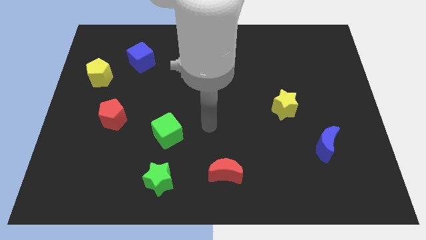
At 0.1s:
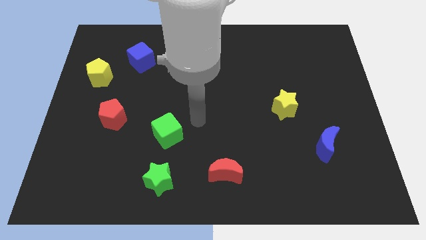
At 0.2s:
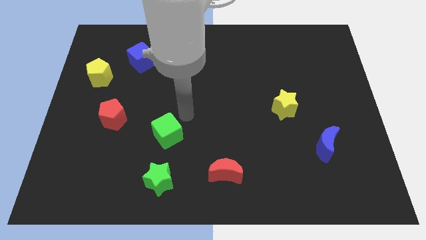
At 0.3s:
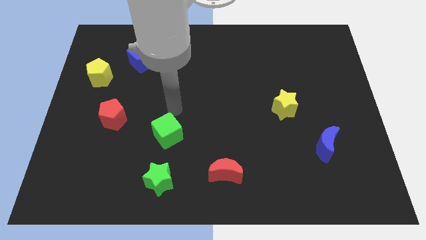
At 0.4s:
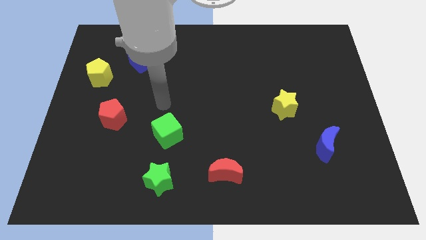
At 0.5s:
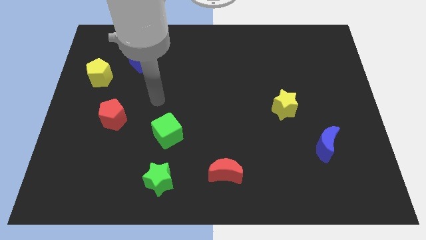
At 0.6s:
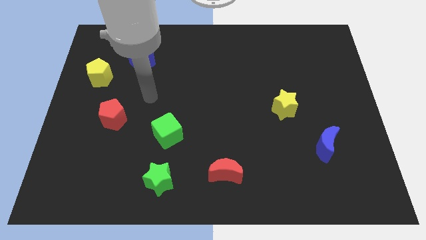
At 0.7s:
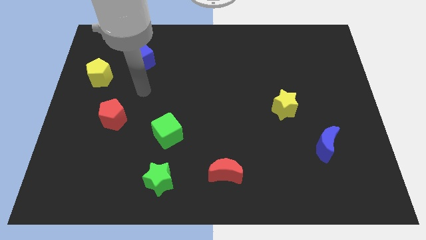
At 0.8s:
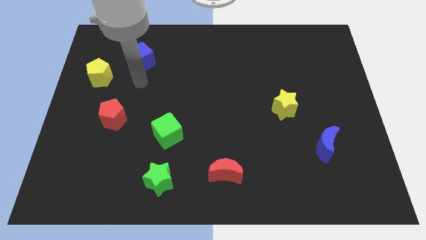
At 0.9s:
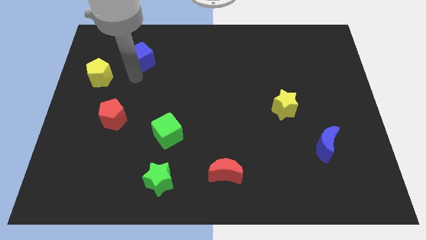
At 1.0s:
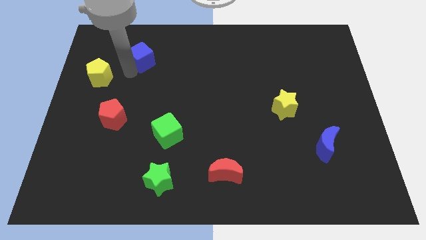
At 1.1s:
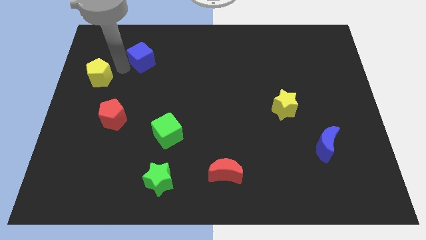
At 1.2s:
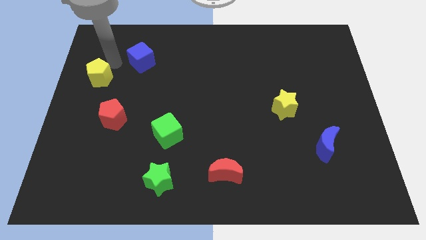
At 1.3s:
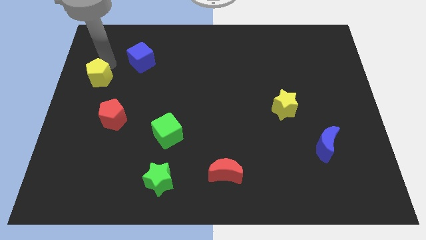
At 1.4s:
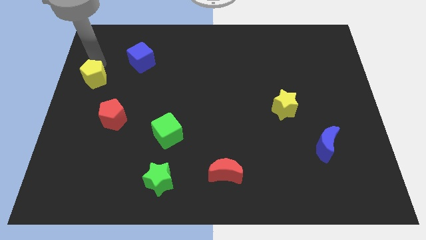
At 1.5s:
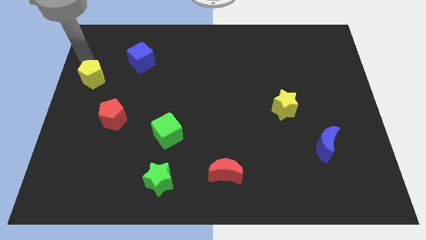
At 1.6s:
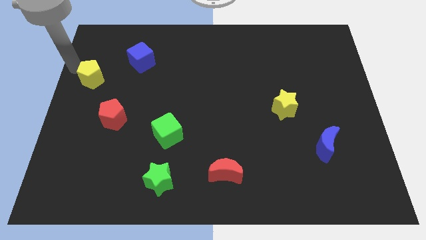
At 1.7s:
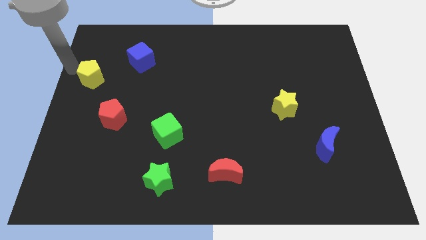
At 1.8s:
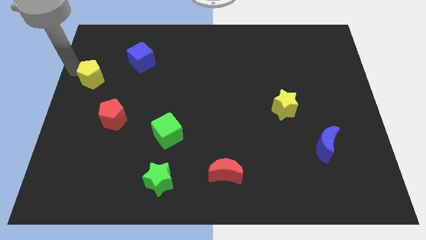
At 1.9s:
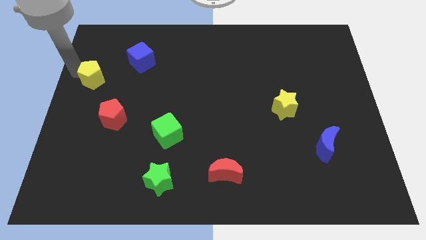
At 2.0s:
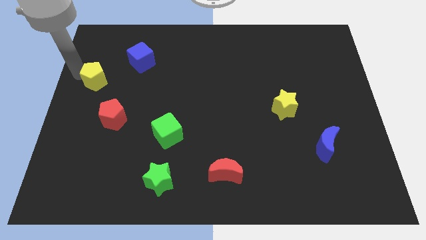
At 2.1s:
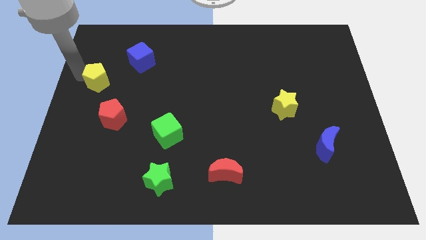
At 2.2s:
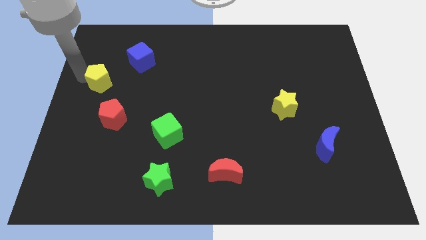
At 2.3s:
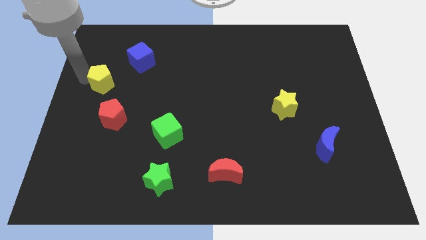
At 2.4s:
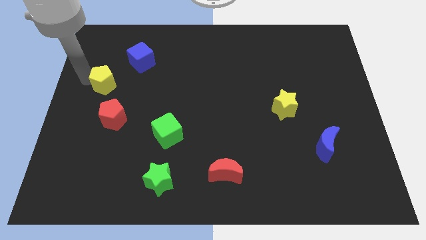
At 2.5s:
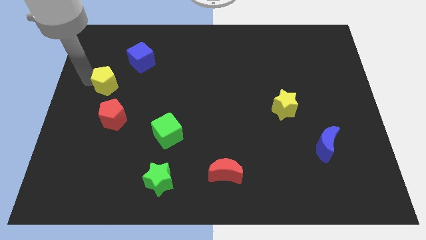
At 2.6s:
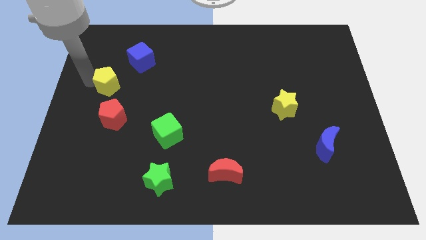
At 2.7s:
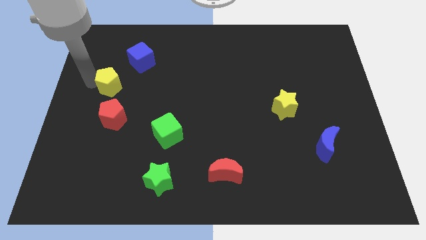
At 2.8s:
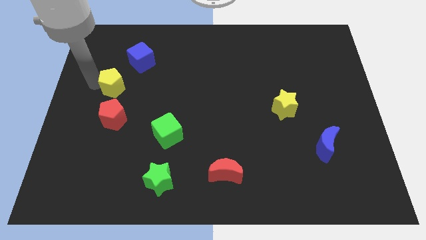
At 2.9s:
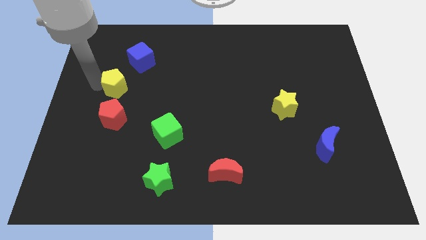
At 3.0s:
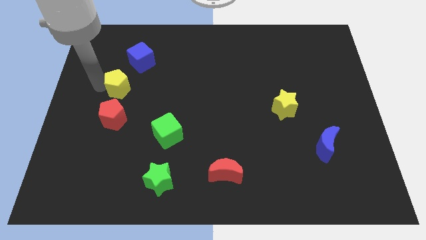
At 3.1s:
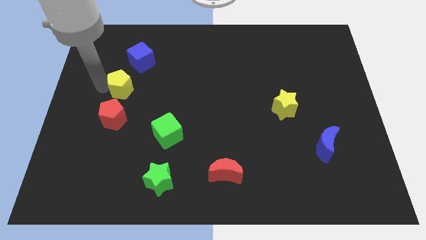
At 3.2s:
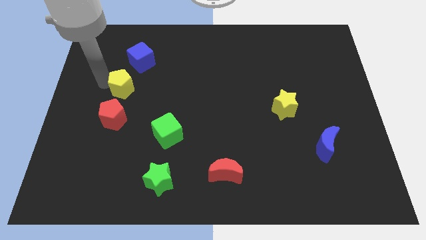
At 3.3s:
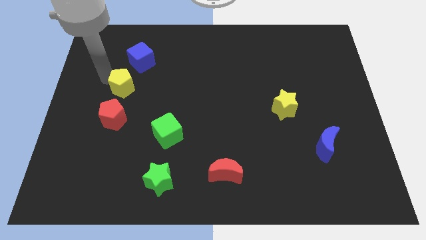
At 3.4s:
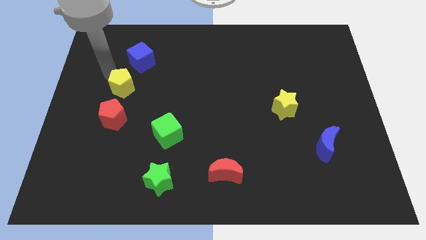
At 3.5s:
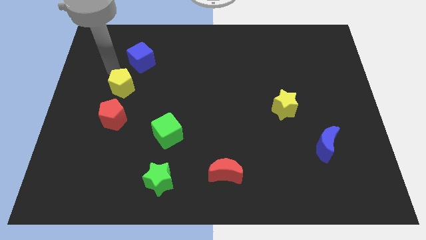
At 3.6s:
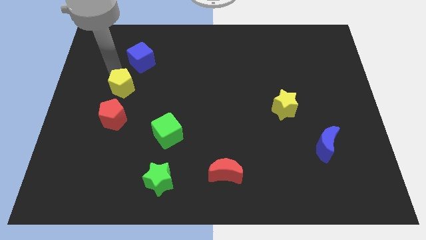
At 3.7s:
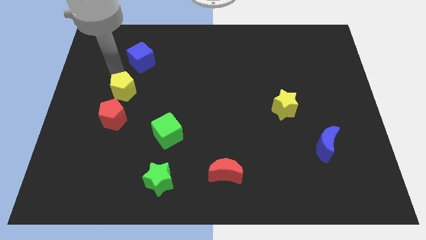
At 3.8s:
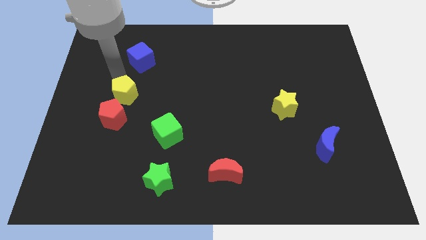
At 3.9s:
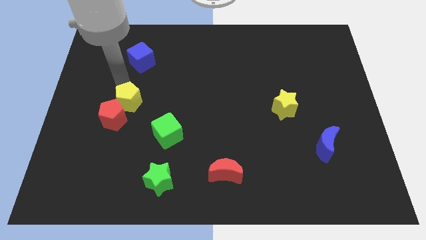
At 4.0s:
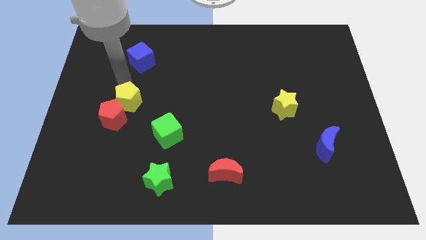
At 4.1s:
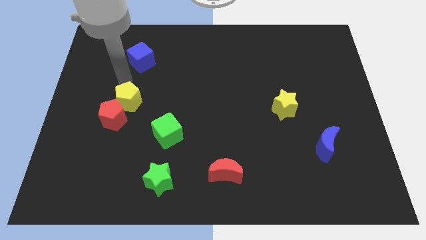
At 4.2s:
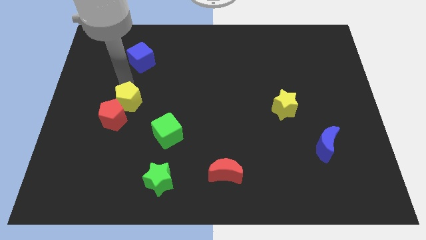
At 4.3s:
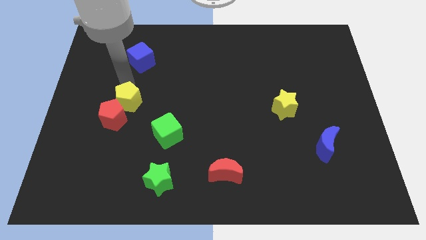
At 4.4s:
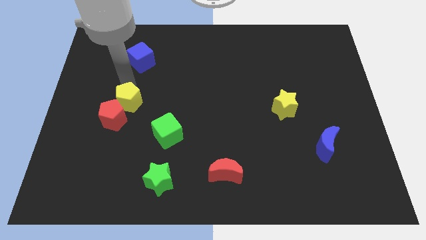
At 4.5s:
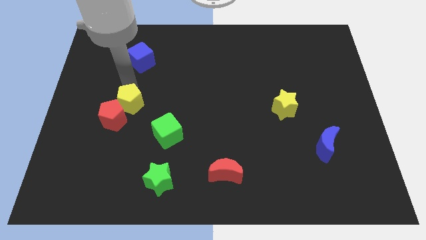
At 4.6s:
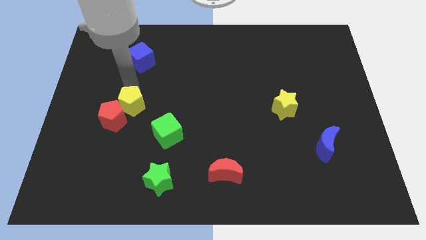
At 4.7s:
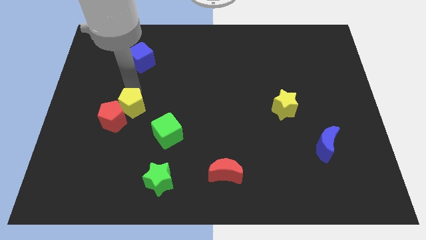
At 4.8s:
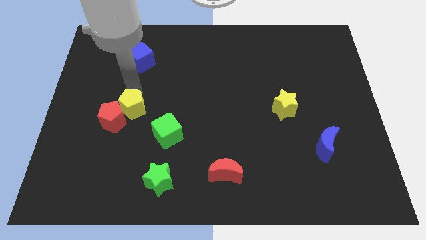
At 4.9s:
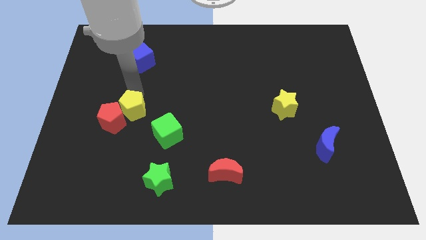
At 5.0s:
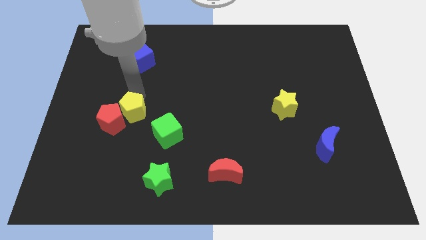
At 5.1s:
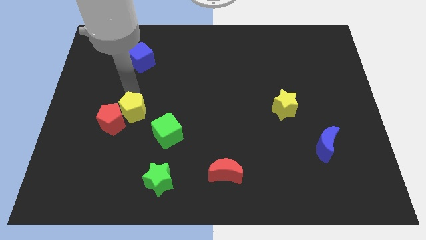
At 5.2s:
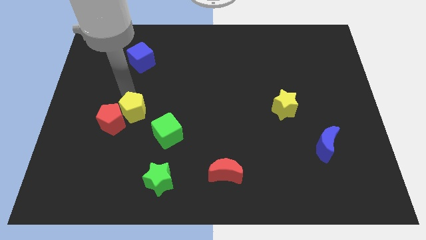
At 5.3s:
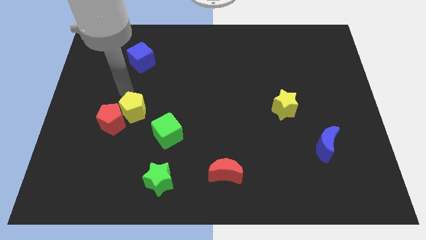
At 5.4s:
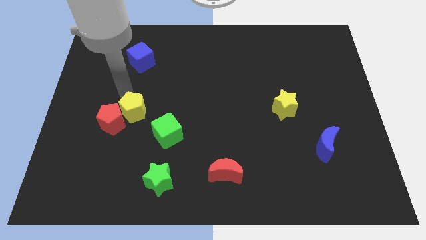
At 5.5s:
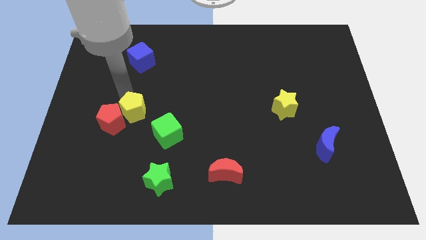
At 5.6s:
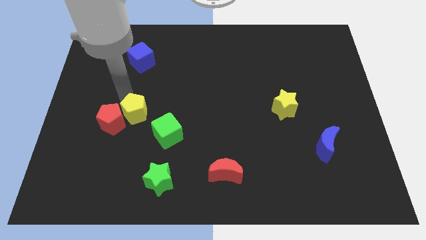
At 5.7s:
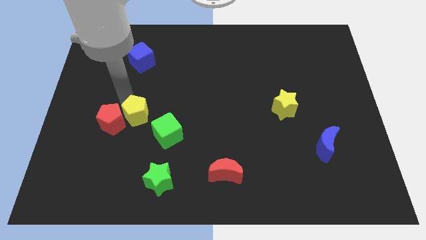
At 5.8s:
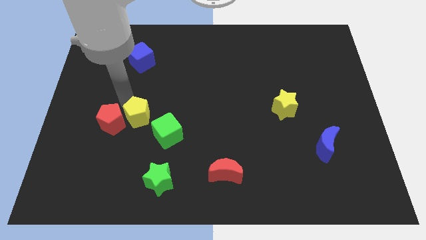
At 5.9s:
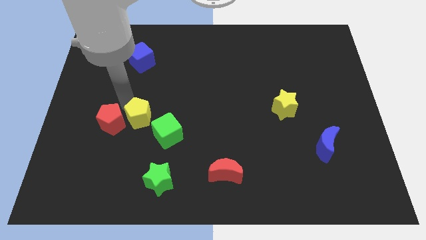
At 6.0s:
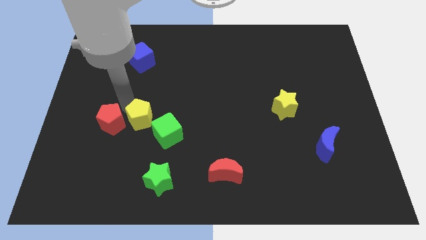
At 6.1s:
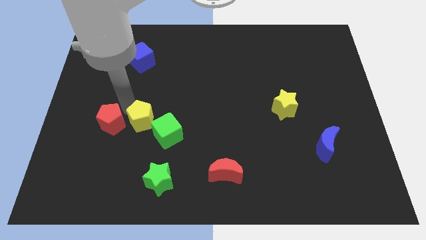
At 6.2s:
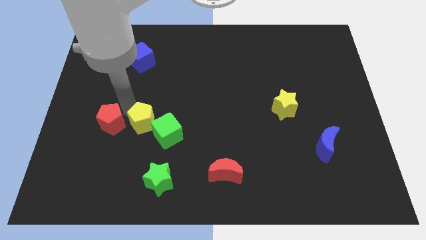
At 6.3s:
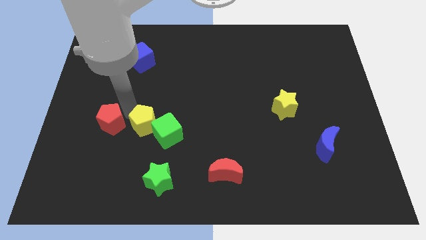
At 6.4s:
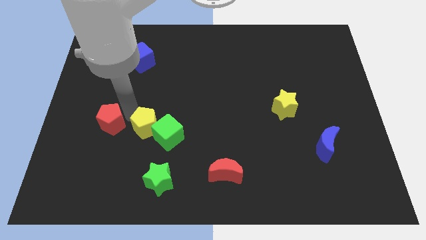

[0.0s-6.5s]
move the yellow pentagon diagonally downwards and right

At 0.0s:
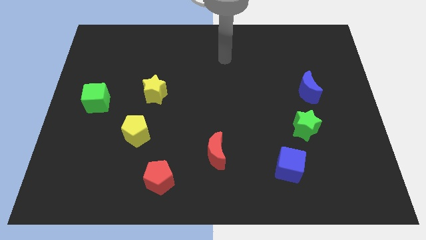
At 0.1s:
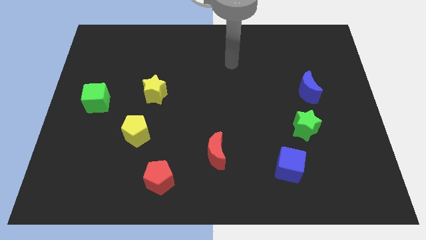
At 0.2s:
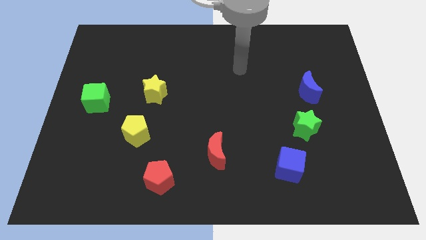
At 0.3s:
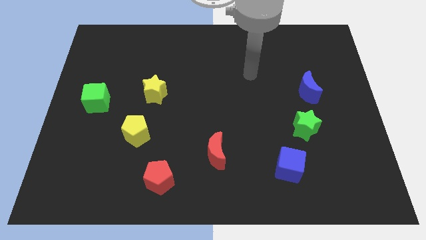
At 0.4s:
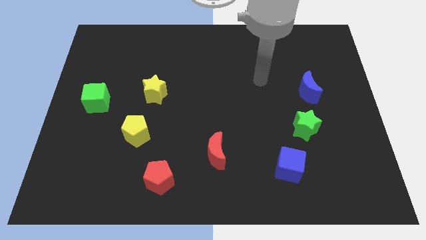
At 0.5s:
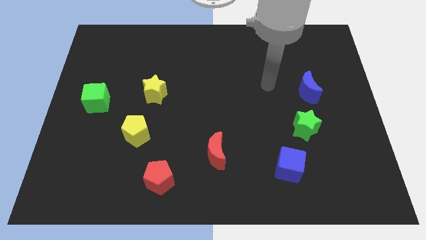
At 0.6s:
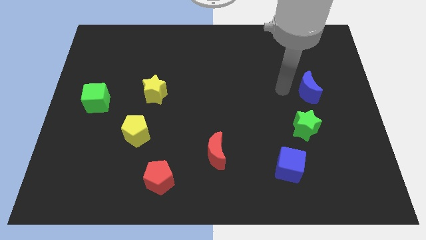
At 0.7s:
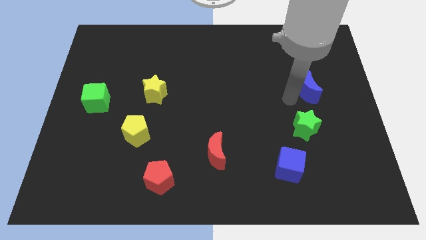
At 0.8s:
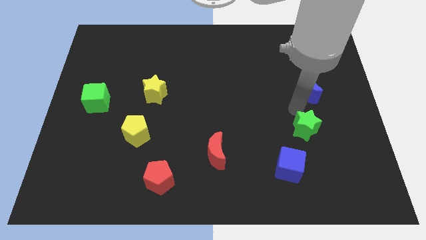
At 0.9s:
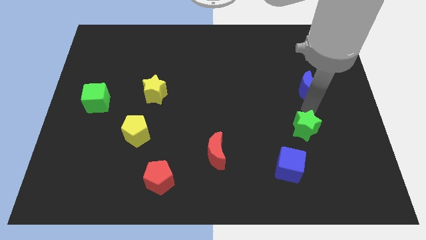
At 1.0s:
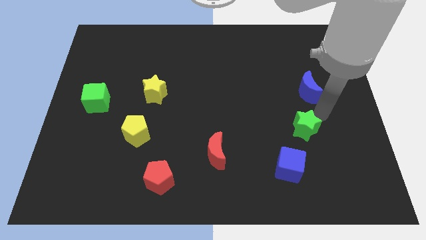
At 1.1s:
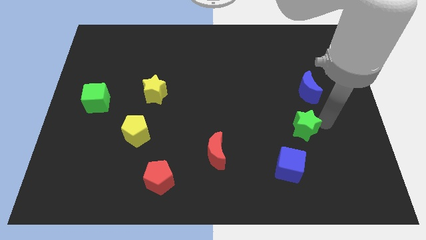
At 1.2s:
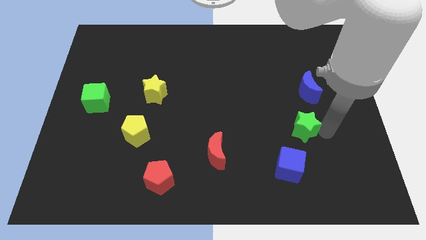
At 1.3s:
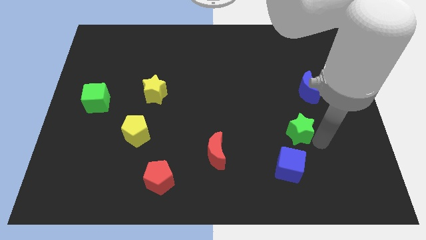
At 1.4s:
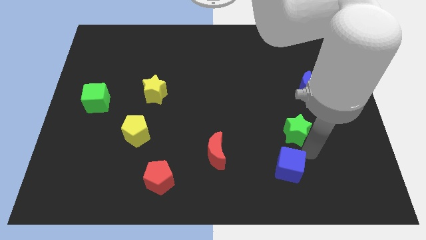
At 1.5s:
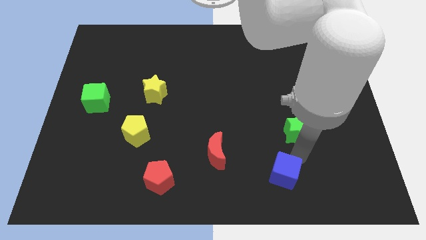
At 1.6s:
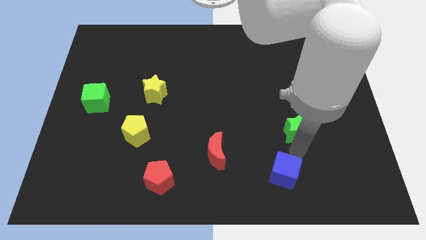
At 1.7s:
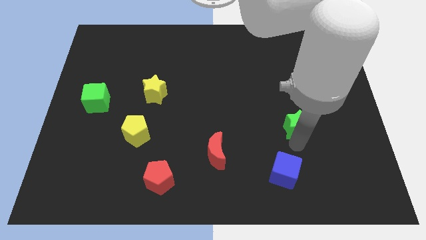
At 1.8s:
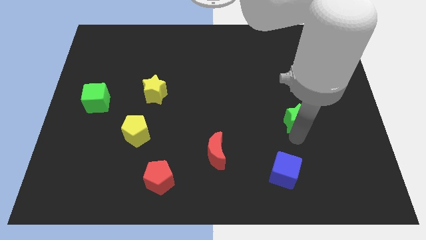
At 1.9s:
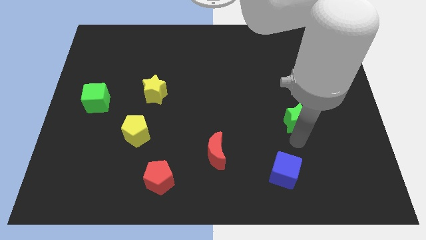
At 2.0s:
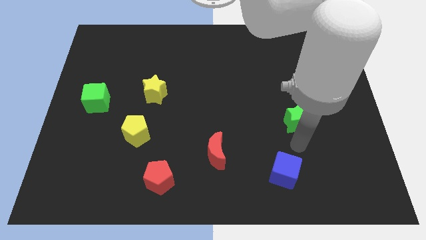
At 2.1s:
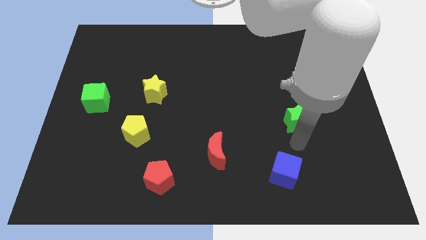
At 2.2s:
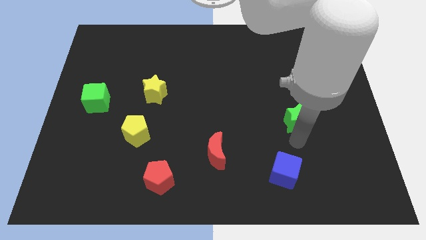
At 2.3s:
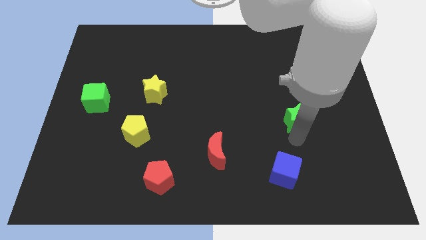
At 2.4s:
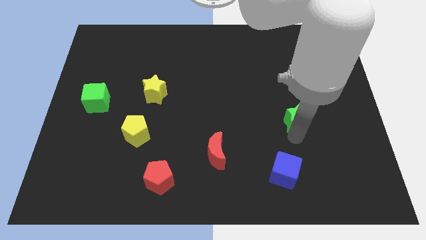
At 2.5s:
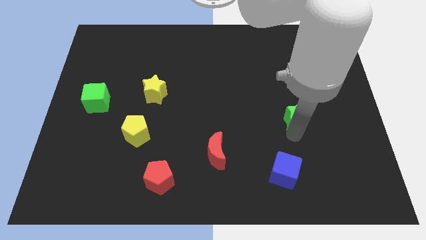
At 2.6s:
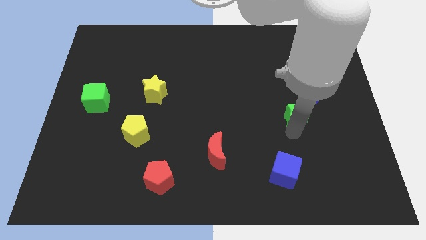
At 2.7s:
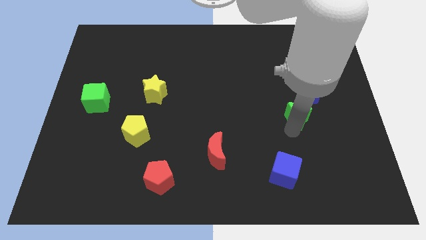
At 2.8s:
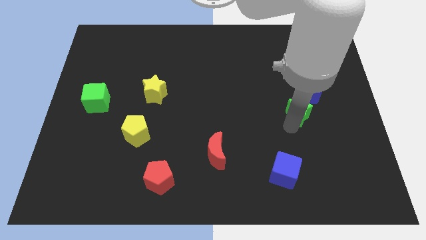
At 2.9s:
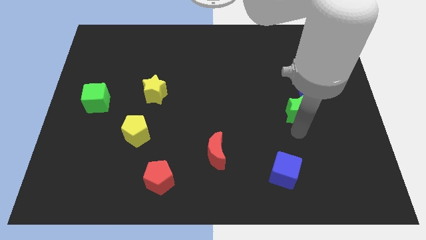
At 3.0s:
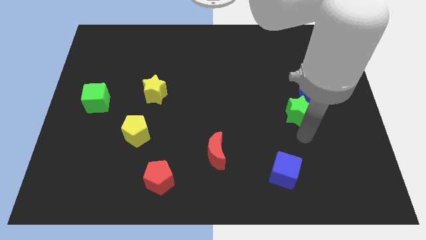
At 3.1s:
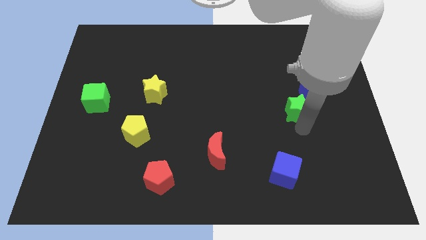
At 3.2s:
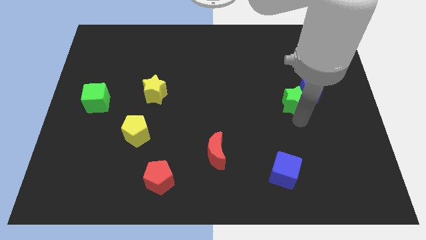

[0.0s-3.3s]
push the green star upwards somewhat
